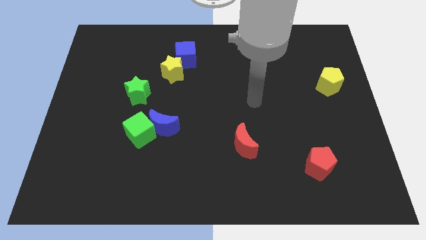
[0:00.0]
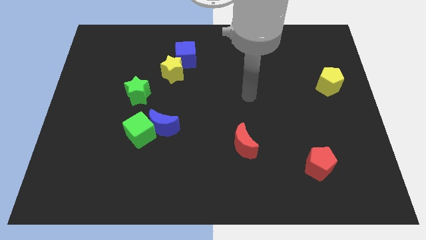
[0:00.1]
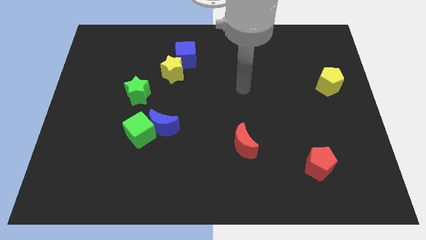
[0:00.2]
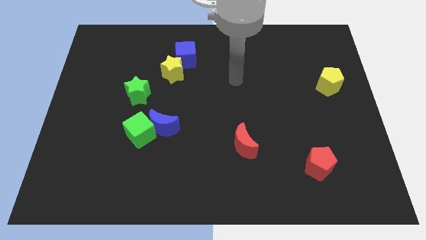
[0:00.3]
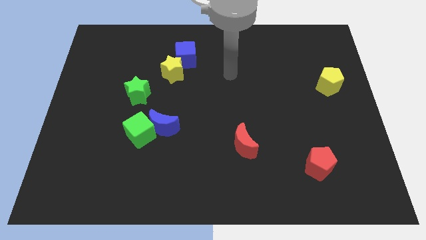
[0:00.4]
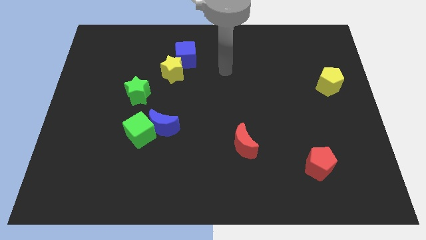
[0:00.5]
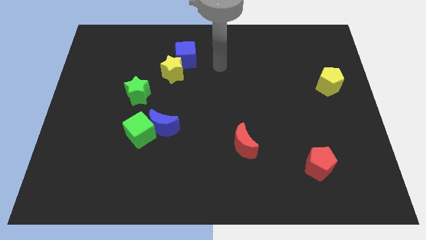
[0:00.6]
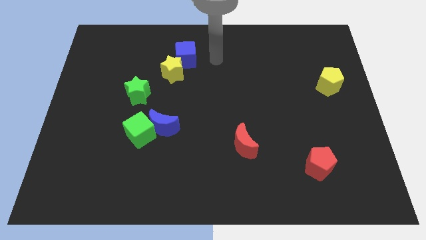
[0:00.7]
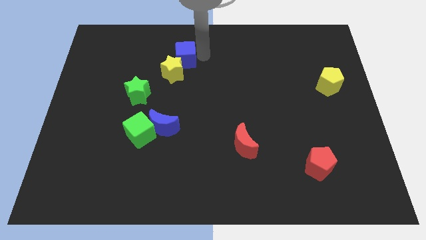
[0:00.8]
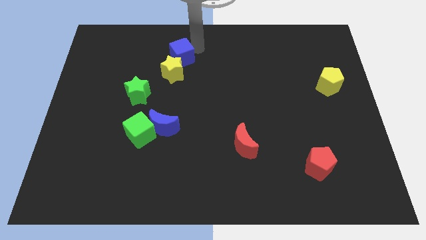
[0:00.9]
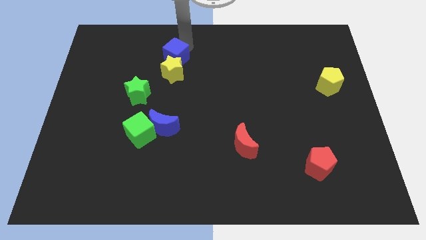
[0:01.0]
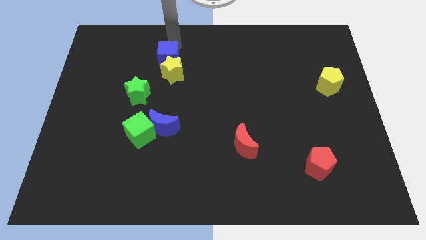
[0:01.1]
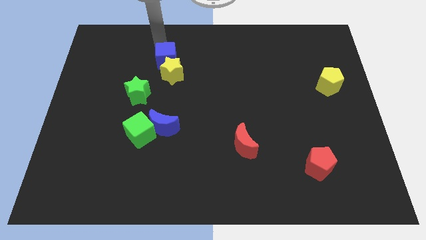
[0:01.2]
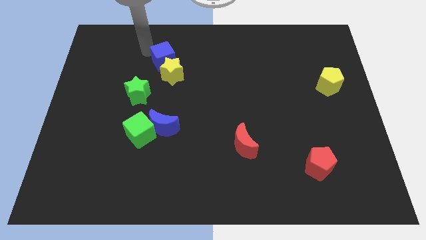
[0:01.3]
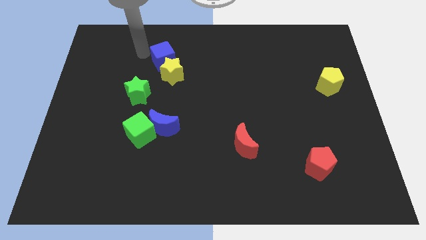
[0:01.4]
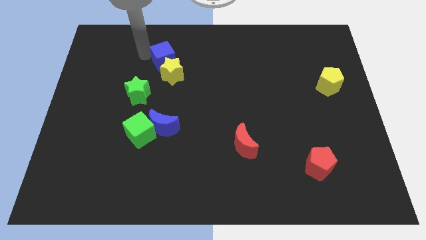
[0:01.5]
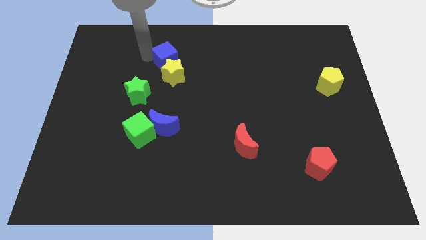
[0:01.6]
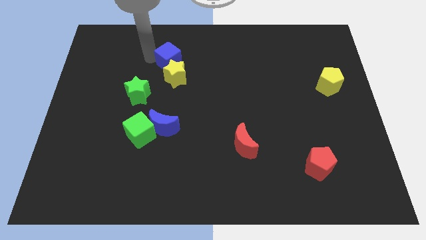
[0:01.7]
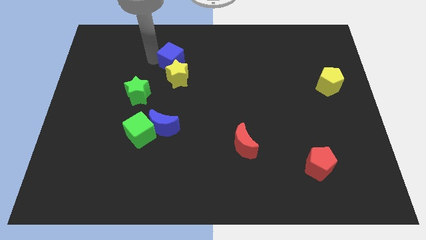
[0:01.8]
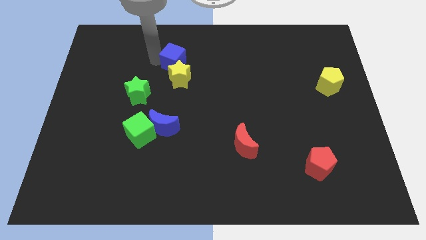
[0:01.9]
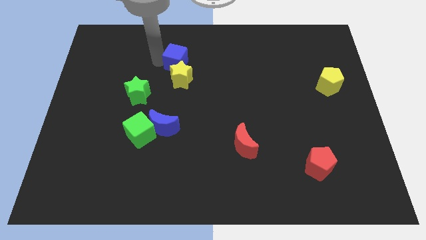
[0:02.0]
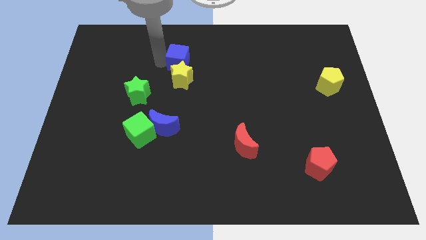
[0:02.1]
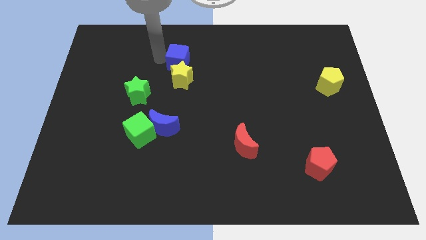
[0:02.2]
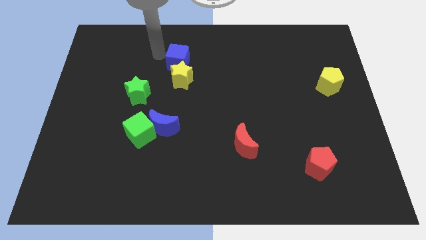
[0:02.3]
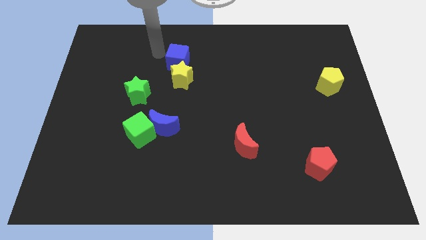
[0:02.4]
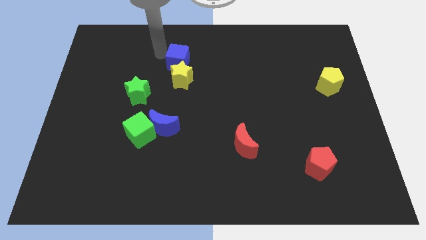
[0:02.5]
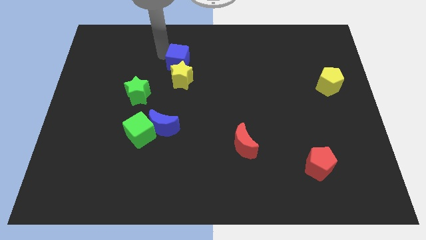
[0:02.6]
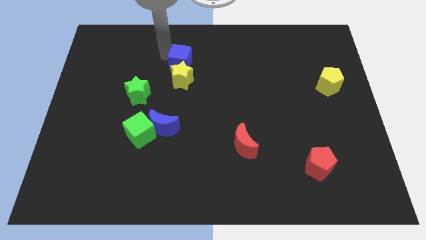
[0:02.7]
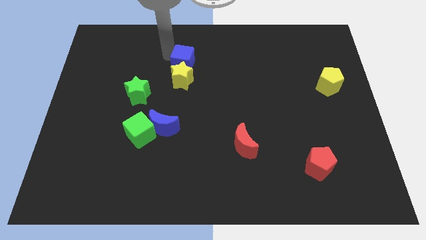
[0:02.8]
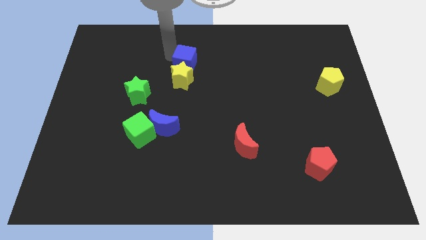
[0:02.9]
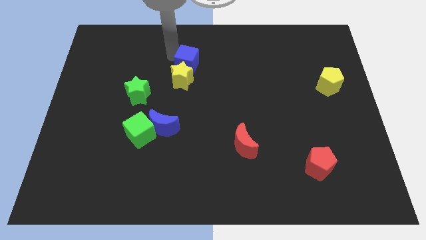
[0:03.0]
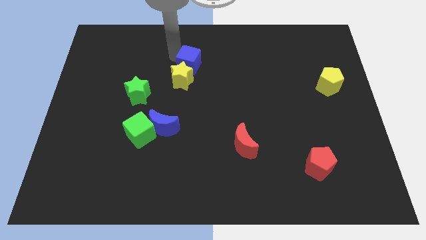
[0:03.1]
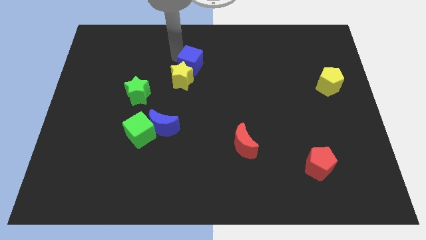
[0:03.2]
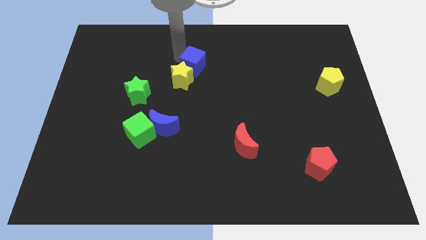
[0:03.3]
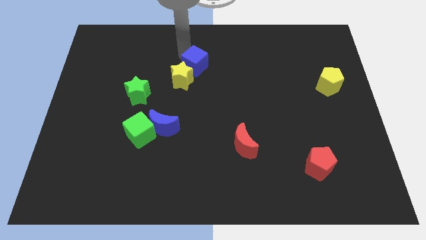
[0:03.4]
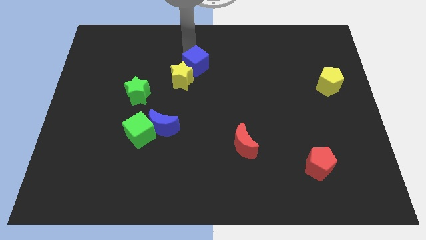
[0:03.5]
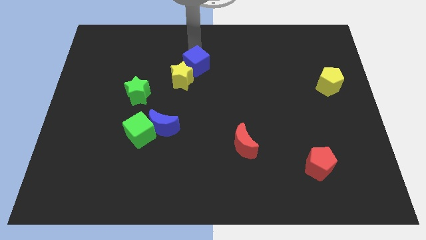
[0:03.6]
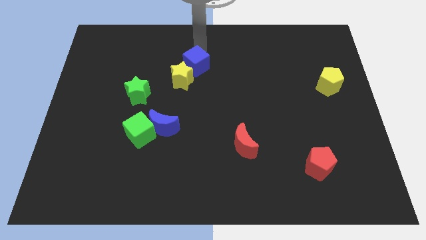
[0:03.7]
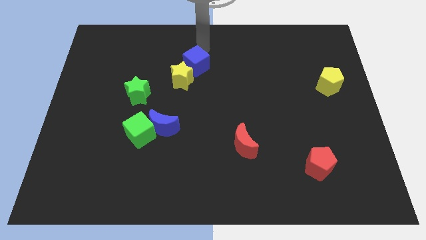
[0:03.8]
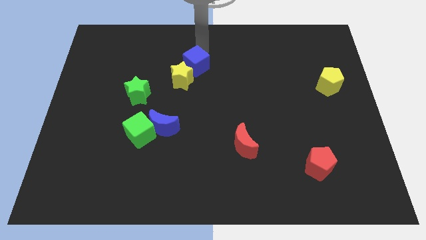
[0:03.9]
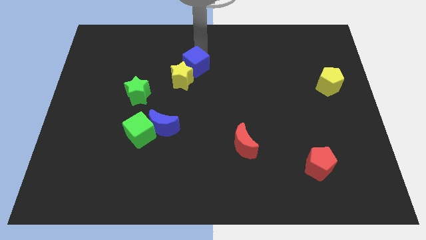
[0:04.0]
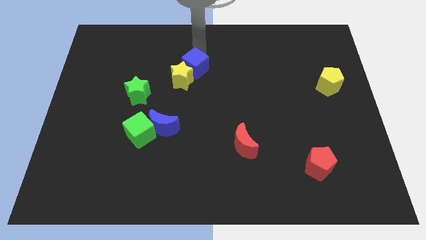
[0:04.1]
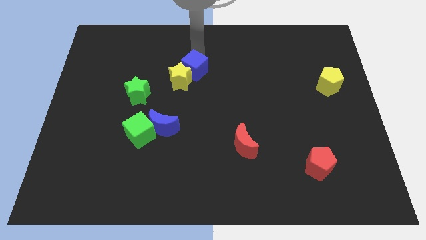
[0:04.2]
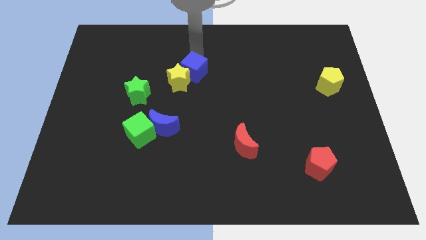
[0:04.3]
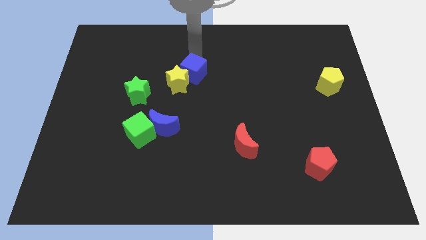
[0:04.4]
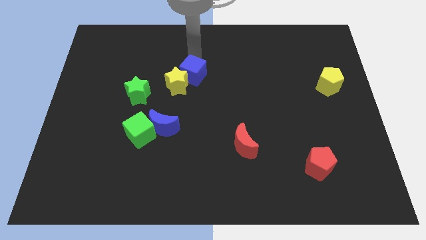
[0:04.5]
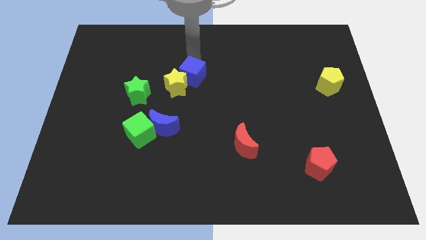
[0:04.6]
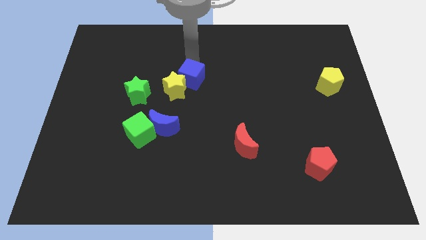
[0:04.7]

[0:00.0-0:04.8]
slightly slide the blue cube downwards

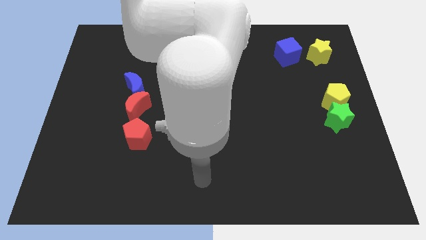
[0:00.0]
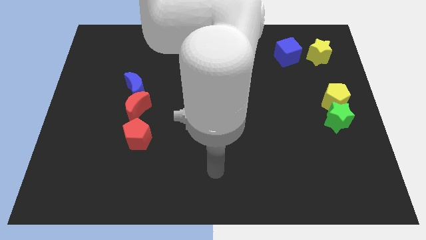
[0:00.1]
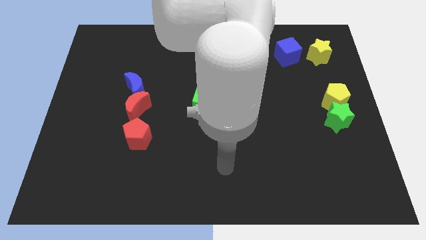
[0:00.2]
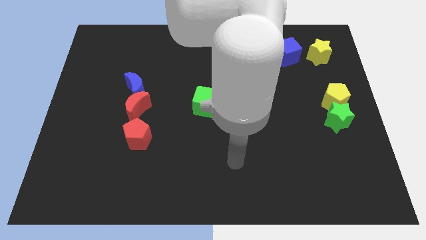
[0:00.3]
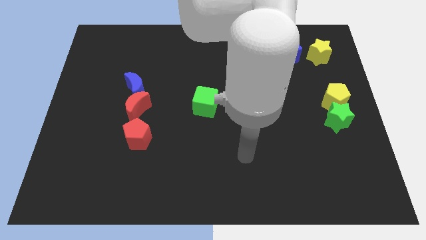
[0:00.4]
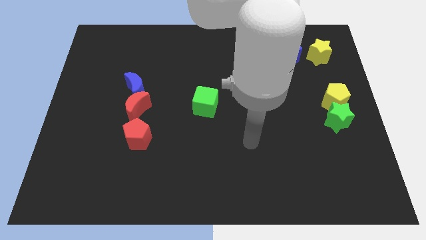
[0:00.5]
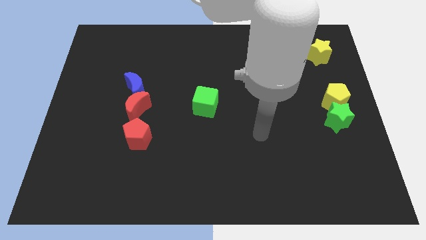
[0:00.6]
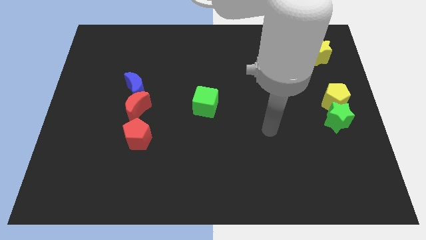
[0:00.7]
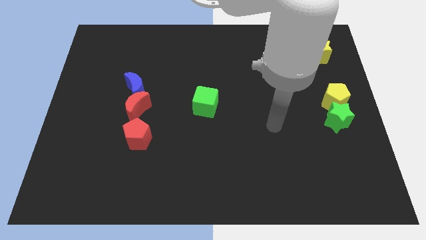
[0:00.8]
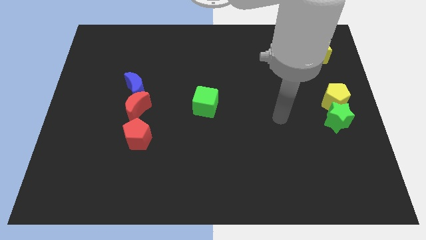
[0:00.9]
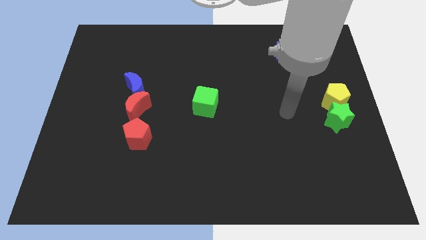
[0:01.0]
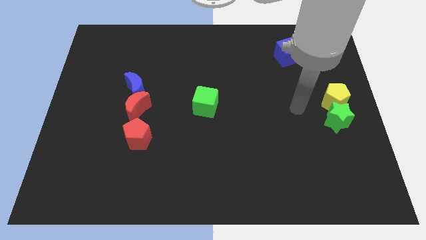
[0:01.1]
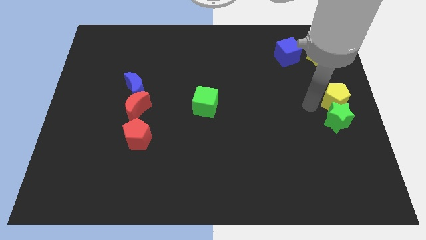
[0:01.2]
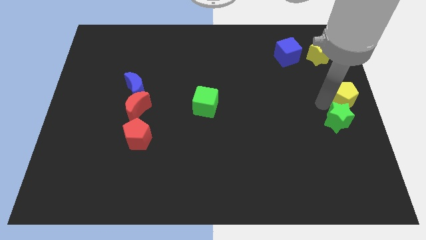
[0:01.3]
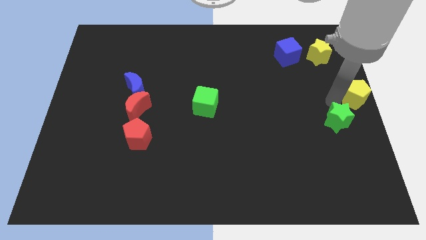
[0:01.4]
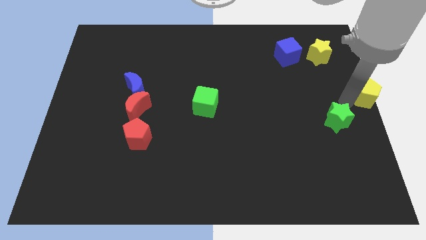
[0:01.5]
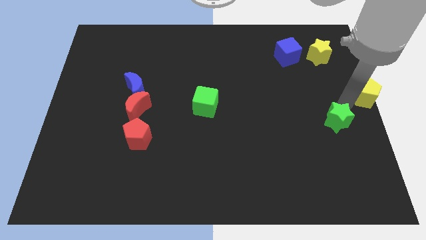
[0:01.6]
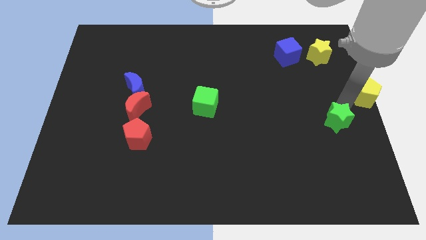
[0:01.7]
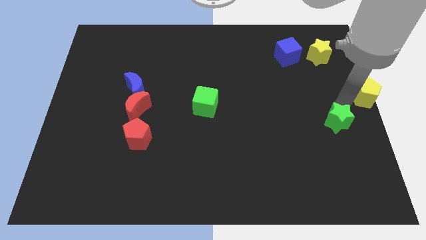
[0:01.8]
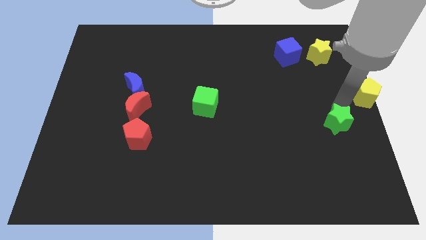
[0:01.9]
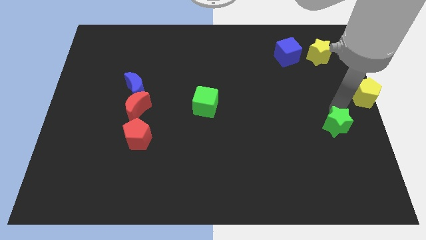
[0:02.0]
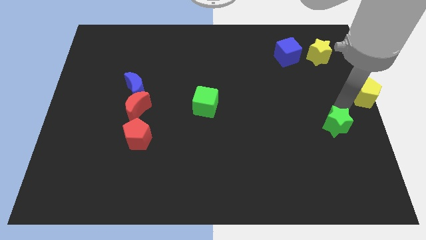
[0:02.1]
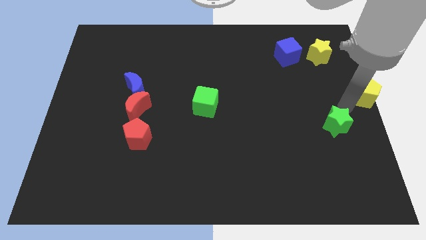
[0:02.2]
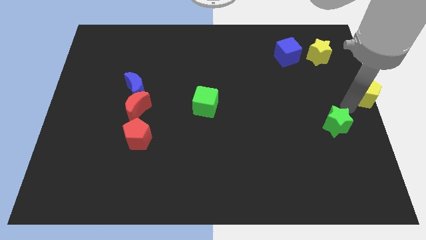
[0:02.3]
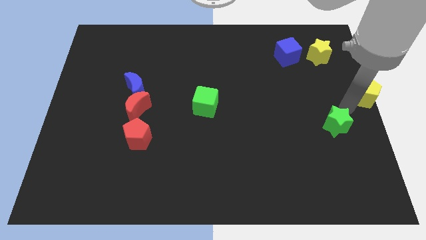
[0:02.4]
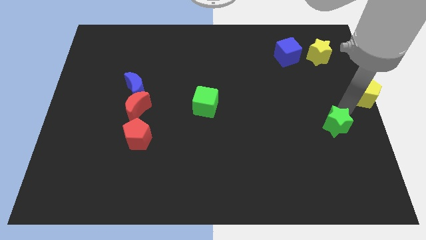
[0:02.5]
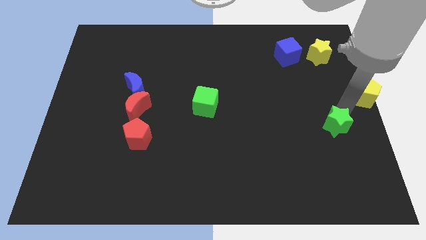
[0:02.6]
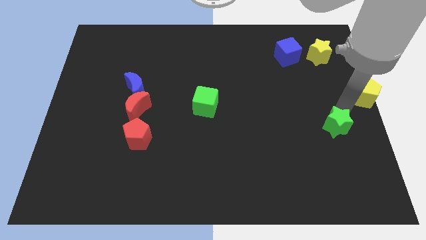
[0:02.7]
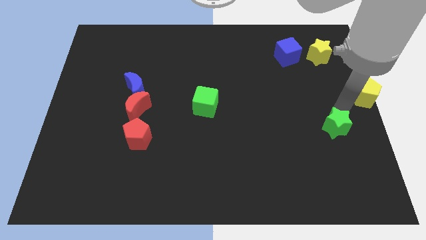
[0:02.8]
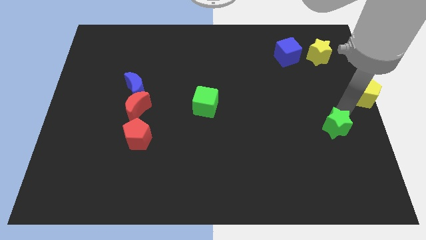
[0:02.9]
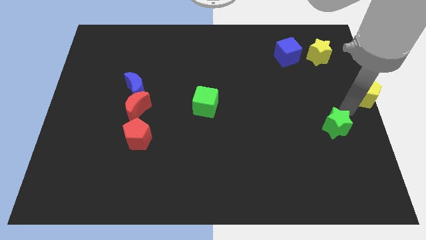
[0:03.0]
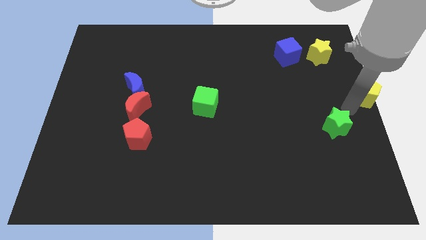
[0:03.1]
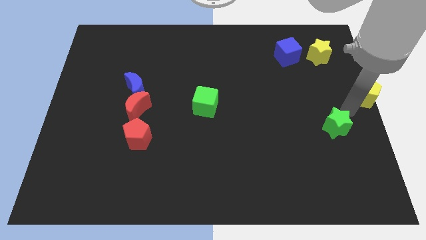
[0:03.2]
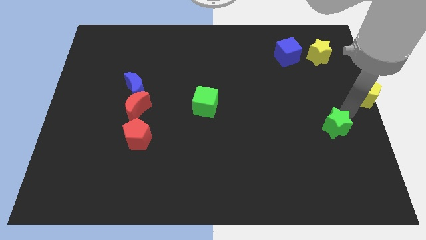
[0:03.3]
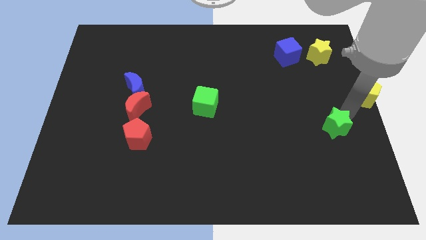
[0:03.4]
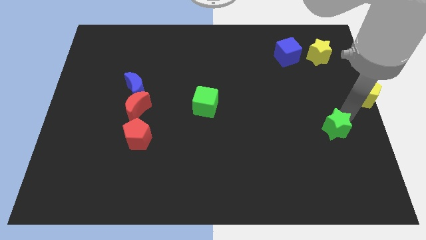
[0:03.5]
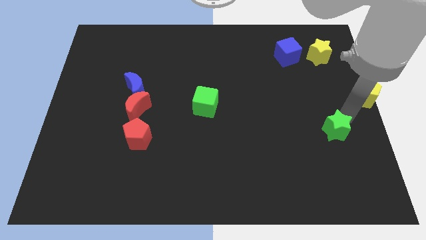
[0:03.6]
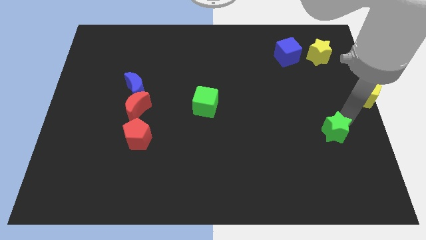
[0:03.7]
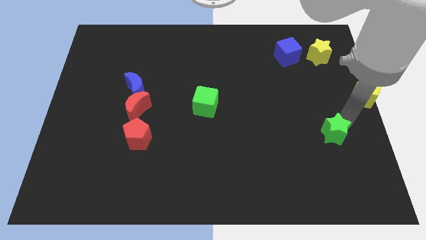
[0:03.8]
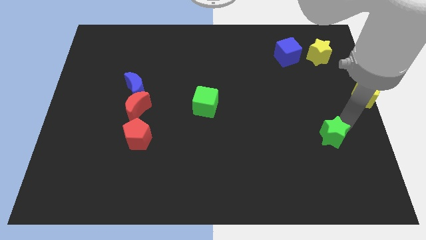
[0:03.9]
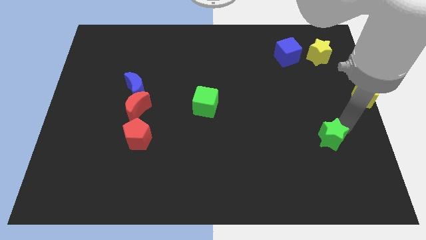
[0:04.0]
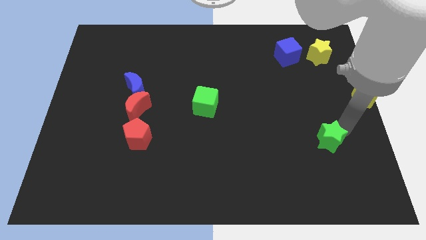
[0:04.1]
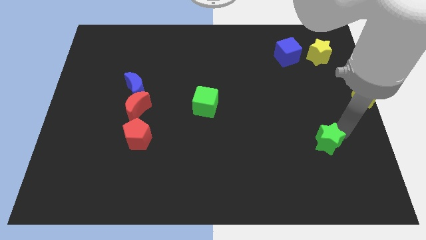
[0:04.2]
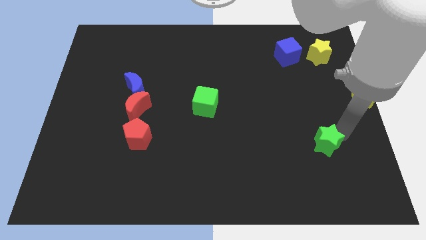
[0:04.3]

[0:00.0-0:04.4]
slightly slide the green star downwards and left
